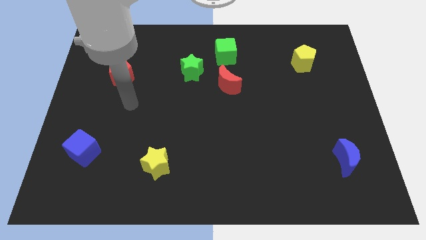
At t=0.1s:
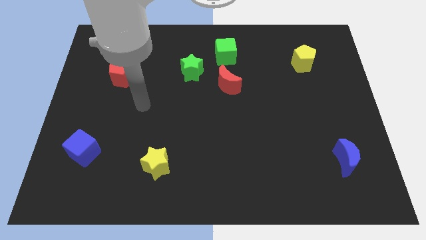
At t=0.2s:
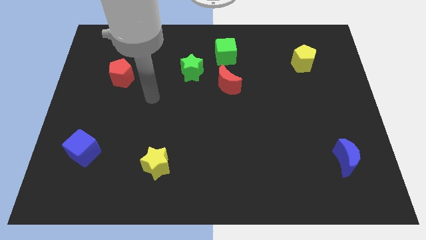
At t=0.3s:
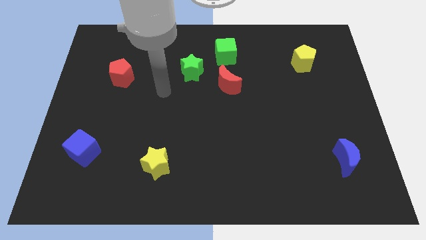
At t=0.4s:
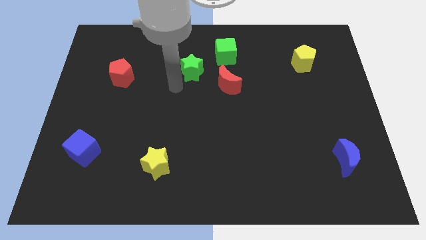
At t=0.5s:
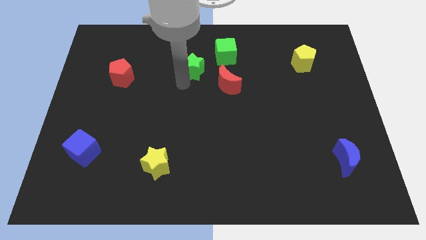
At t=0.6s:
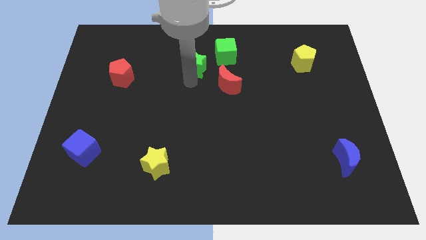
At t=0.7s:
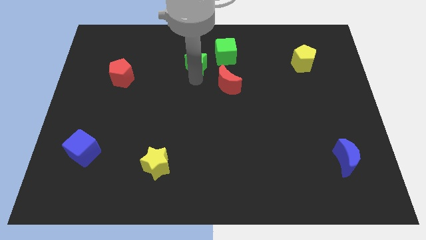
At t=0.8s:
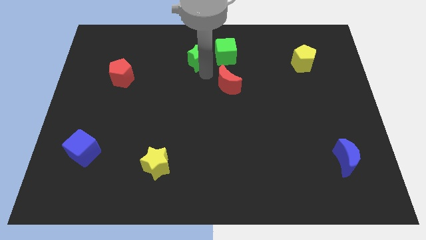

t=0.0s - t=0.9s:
pull the red moon apart from the green star

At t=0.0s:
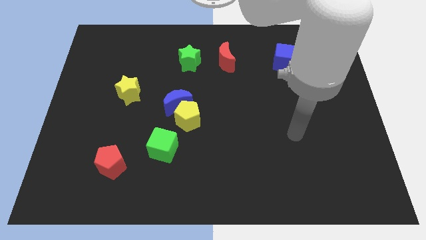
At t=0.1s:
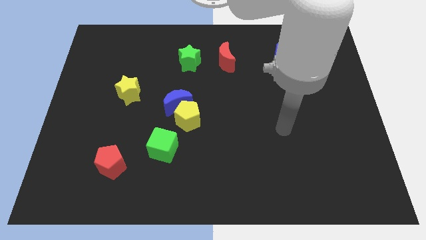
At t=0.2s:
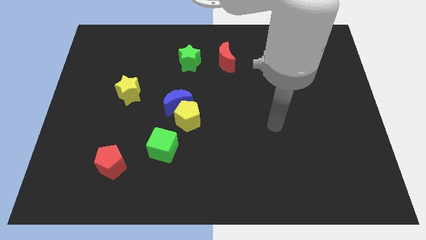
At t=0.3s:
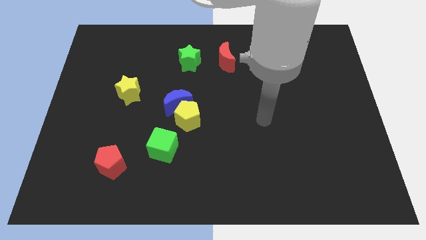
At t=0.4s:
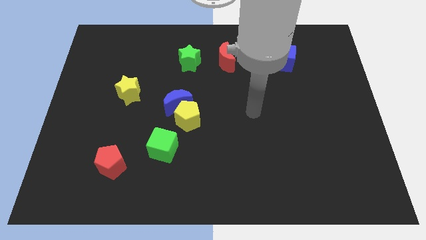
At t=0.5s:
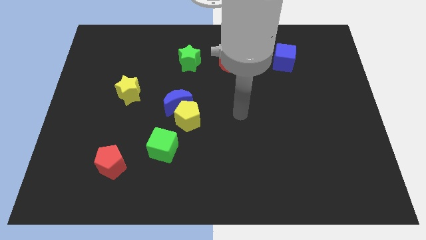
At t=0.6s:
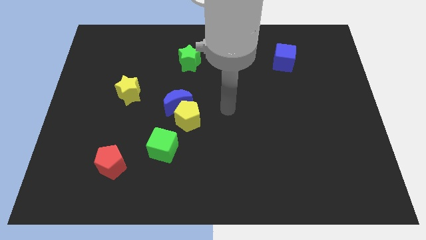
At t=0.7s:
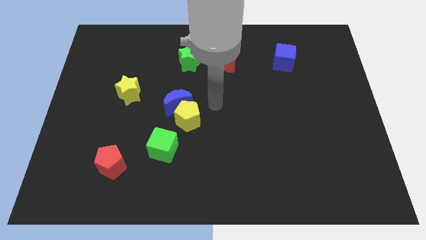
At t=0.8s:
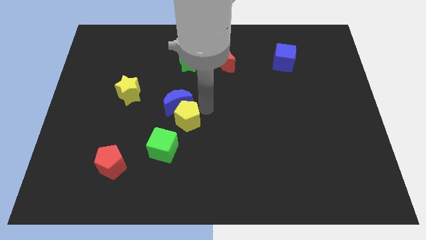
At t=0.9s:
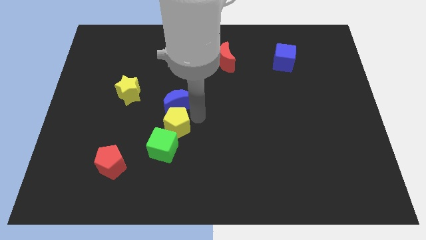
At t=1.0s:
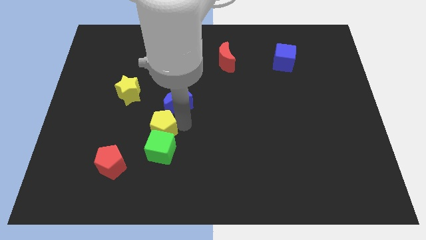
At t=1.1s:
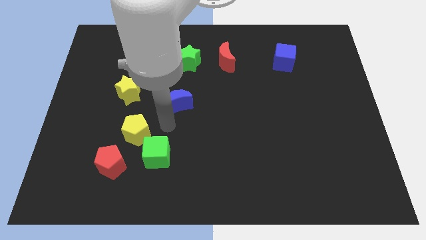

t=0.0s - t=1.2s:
pull the blue moon apart from the yellow pentagon

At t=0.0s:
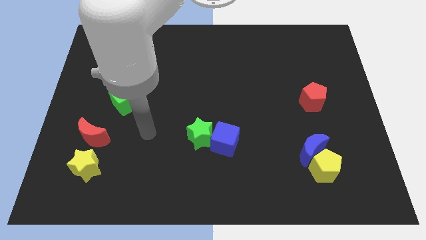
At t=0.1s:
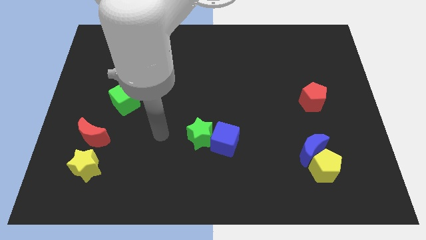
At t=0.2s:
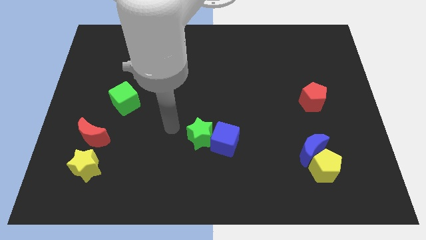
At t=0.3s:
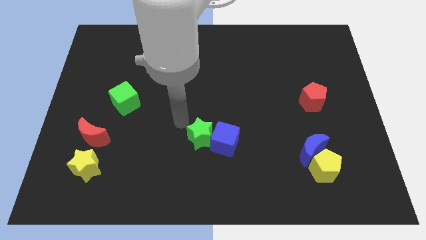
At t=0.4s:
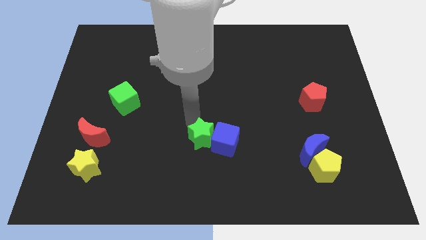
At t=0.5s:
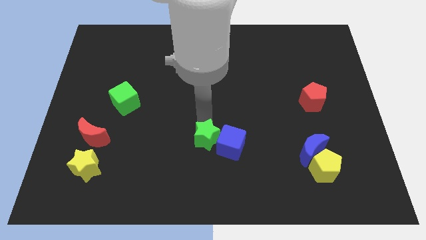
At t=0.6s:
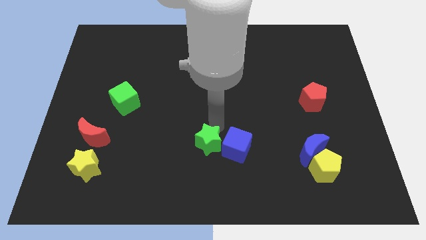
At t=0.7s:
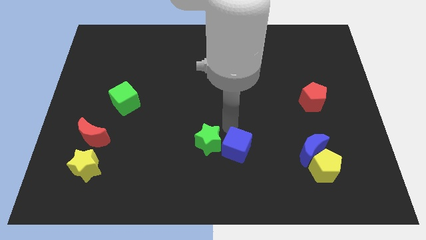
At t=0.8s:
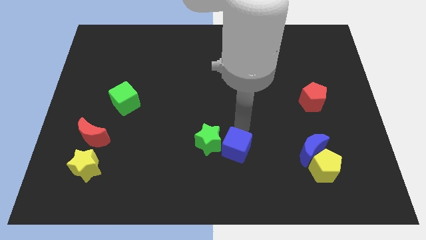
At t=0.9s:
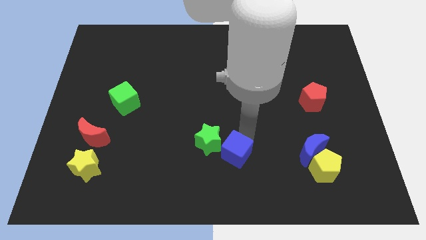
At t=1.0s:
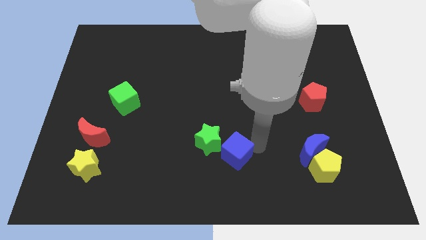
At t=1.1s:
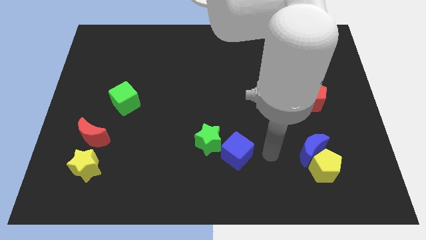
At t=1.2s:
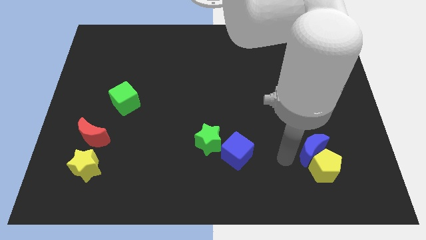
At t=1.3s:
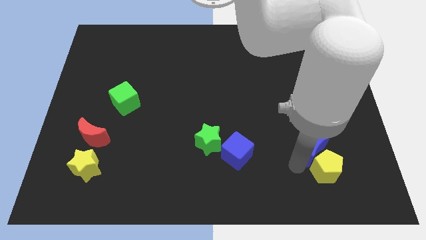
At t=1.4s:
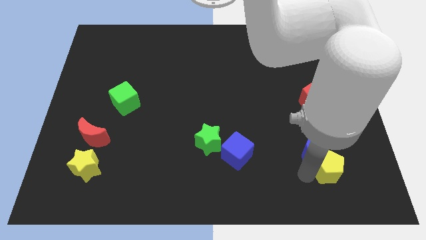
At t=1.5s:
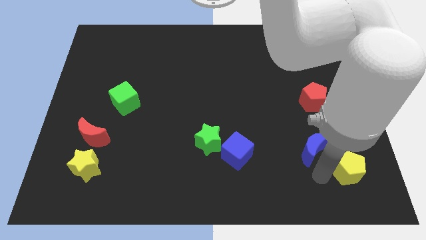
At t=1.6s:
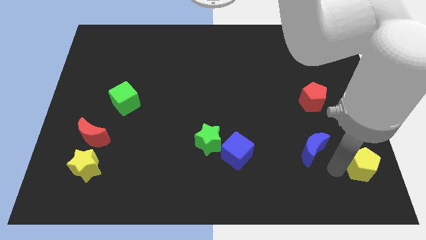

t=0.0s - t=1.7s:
move the blue moon away from the yellow pentagon

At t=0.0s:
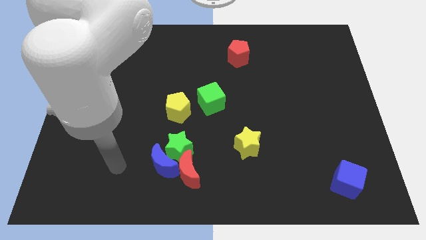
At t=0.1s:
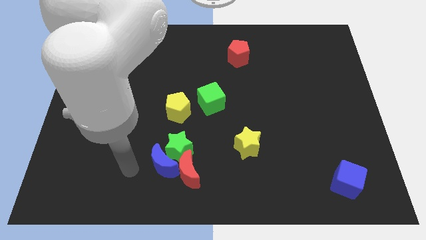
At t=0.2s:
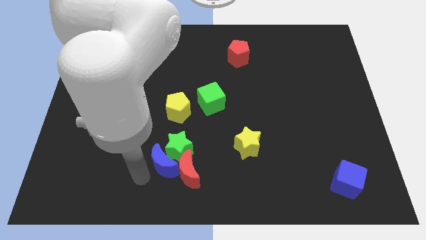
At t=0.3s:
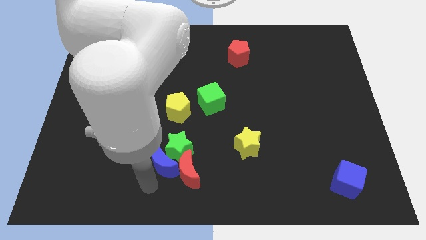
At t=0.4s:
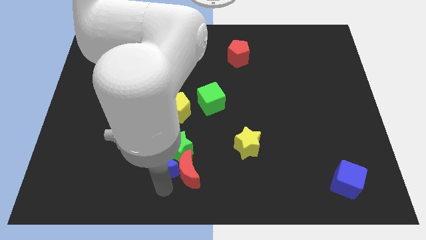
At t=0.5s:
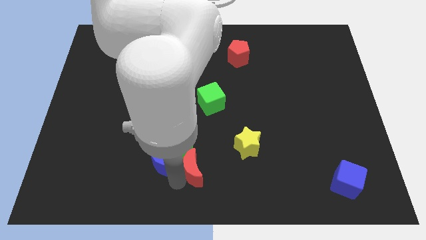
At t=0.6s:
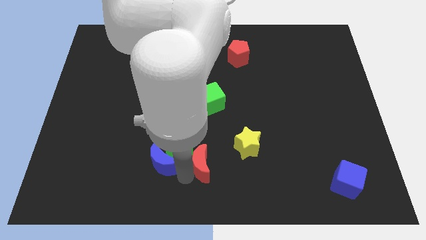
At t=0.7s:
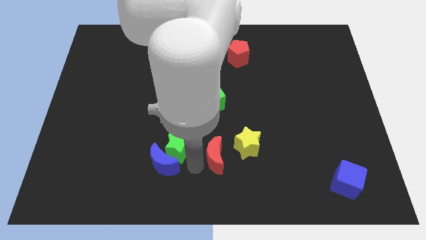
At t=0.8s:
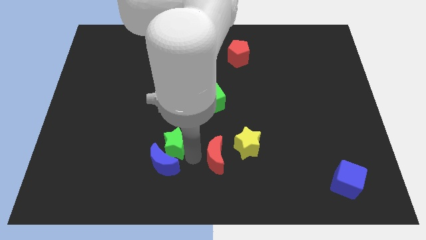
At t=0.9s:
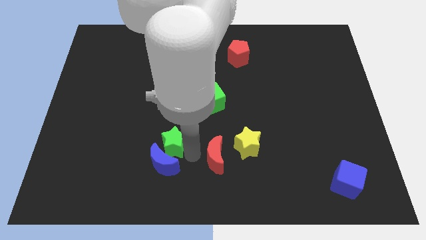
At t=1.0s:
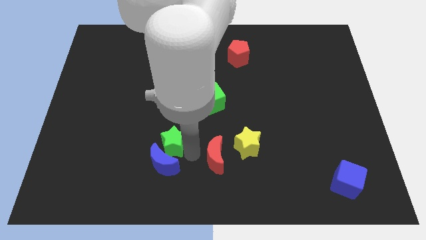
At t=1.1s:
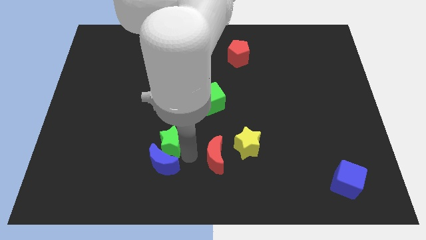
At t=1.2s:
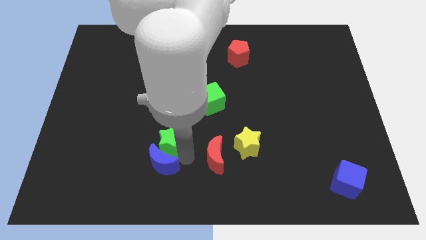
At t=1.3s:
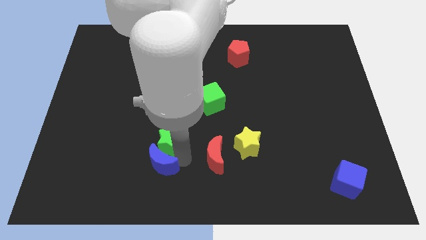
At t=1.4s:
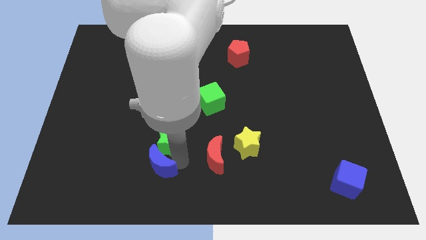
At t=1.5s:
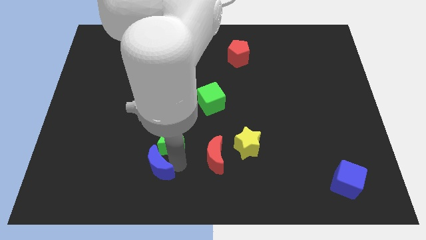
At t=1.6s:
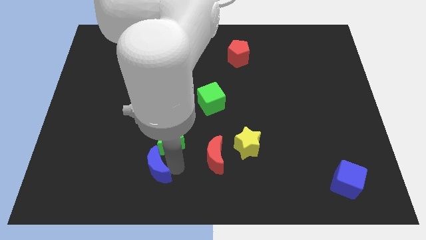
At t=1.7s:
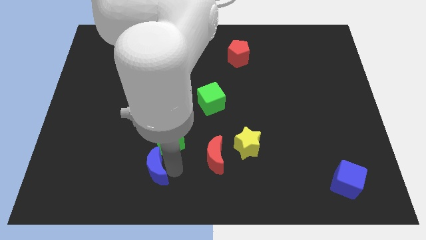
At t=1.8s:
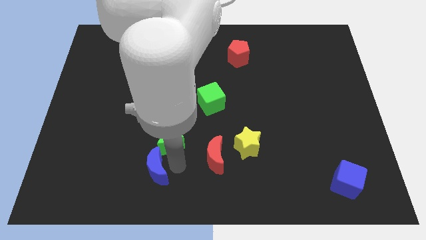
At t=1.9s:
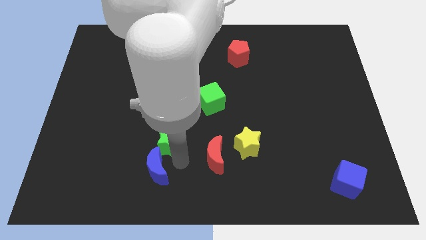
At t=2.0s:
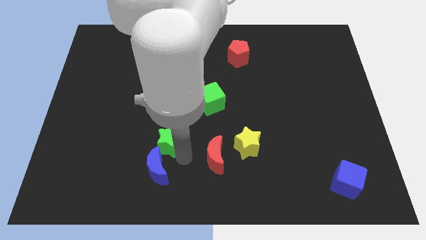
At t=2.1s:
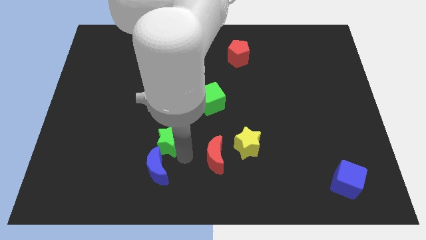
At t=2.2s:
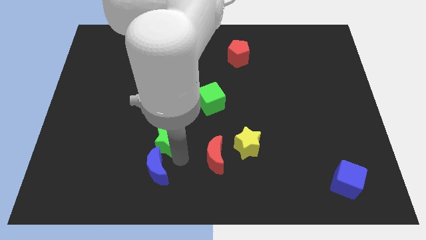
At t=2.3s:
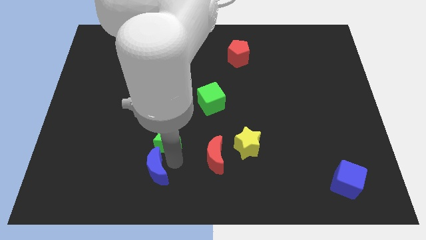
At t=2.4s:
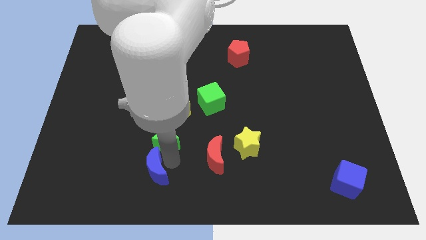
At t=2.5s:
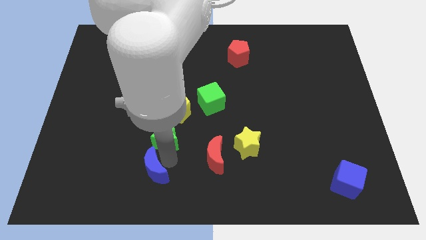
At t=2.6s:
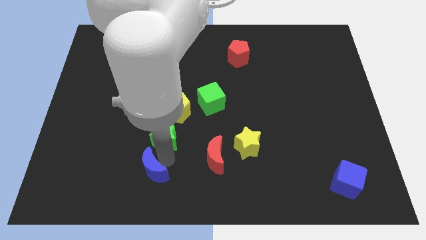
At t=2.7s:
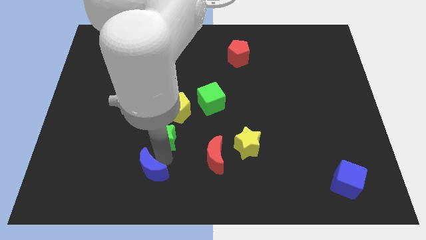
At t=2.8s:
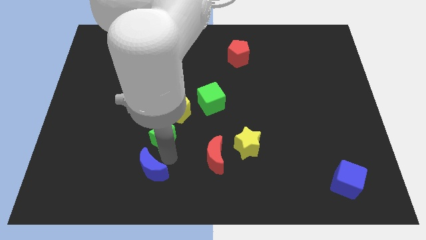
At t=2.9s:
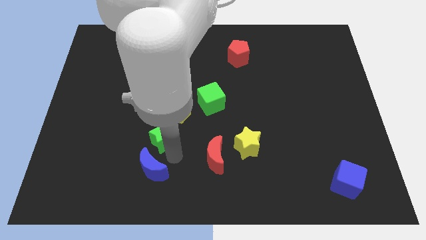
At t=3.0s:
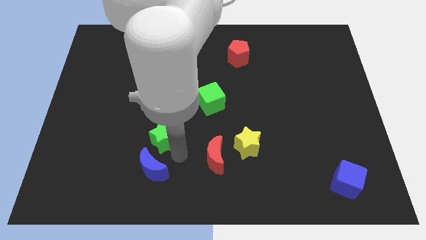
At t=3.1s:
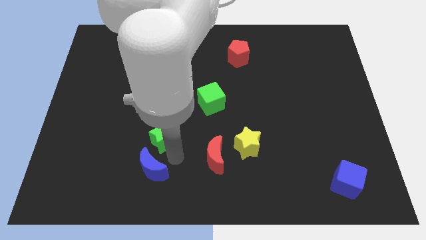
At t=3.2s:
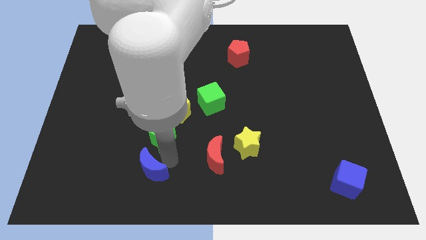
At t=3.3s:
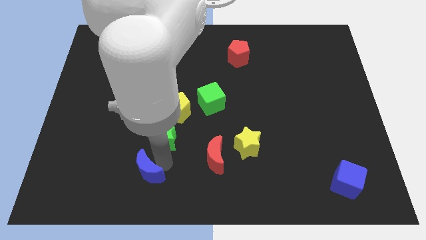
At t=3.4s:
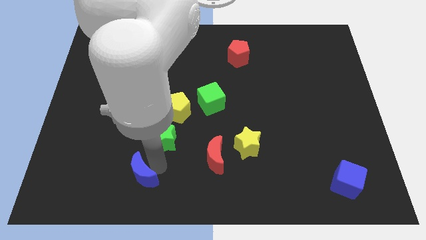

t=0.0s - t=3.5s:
separate the blue moon from the green star and red moon

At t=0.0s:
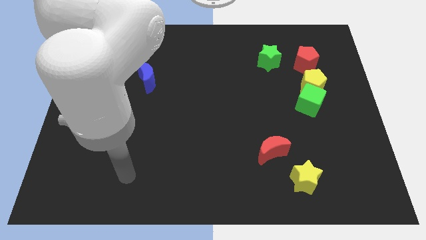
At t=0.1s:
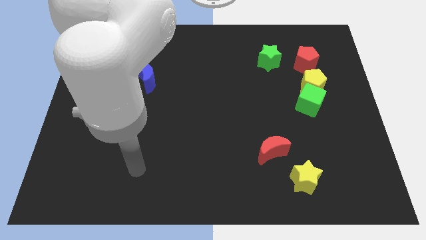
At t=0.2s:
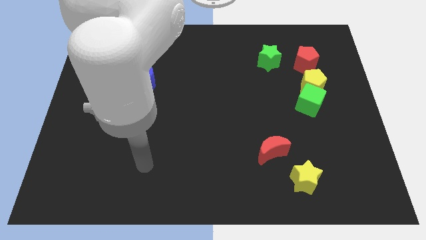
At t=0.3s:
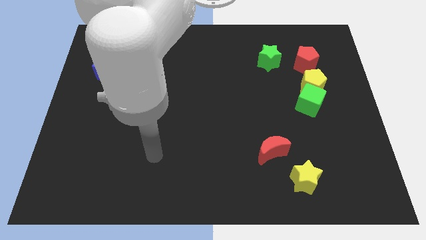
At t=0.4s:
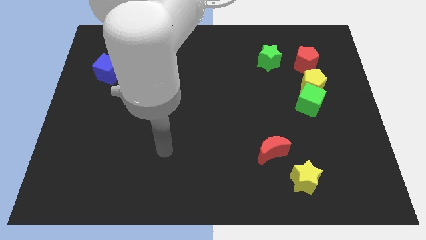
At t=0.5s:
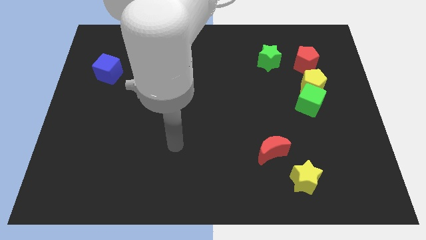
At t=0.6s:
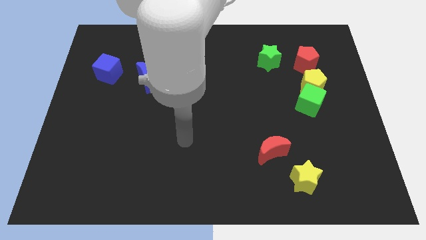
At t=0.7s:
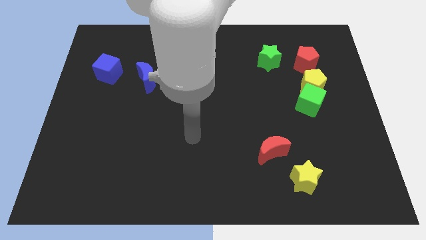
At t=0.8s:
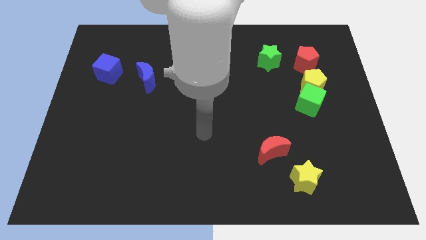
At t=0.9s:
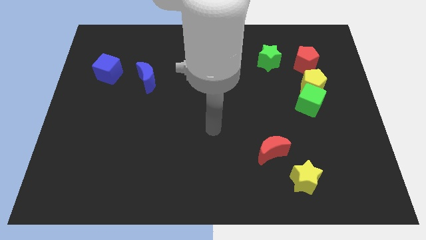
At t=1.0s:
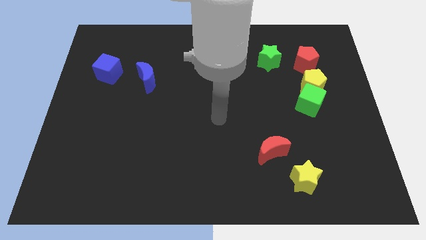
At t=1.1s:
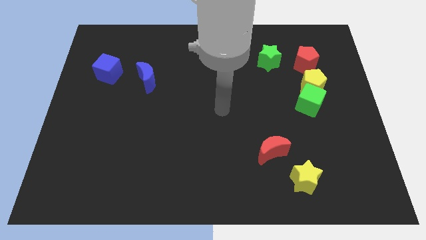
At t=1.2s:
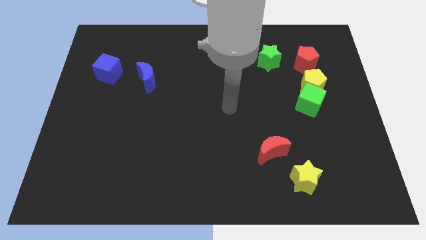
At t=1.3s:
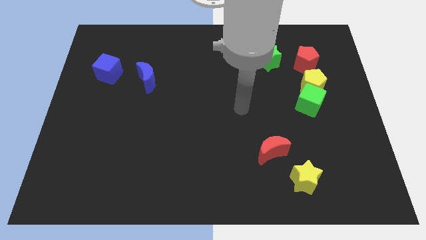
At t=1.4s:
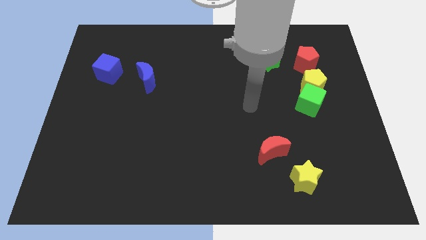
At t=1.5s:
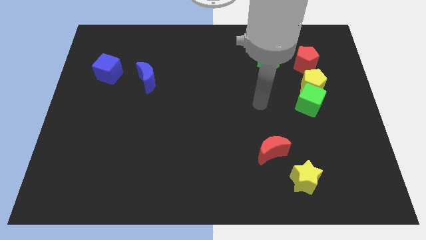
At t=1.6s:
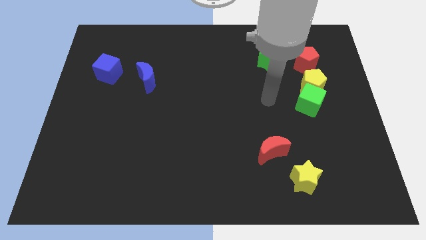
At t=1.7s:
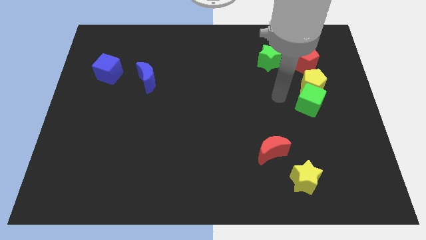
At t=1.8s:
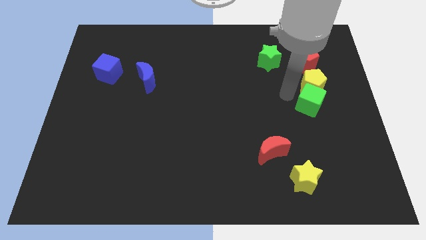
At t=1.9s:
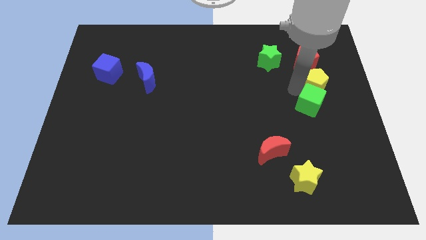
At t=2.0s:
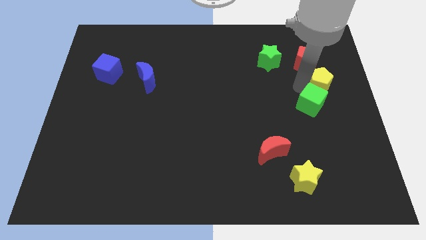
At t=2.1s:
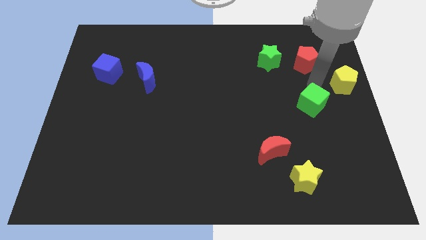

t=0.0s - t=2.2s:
pull the green cube apart from the yellow pentagon
